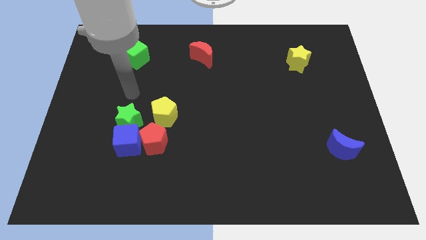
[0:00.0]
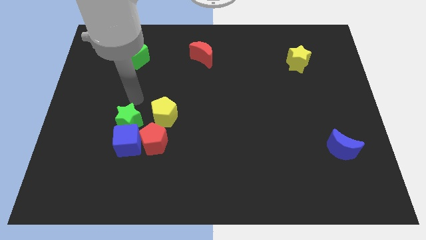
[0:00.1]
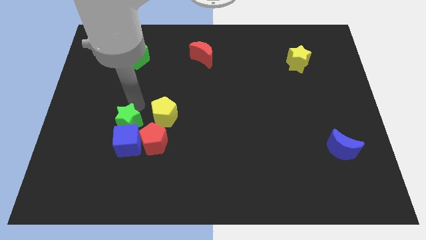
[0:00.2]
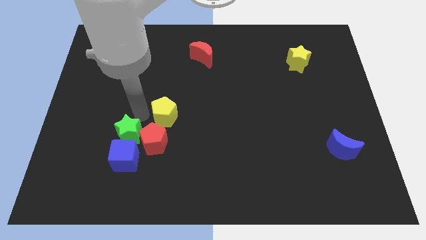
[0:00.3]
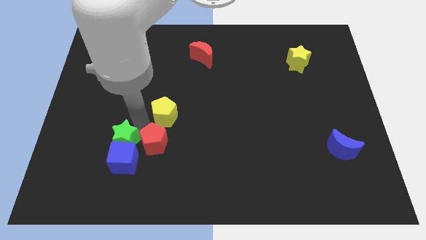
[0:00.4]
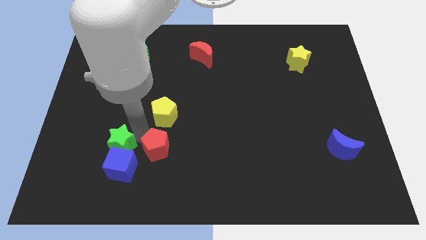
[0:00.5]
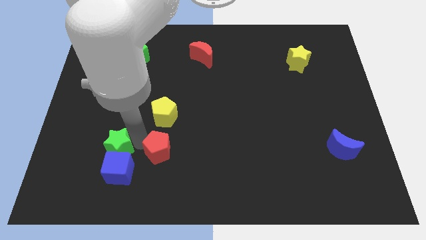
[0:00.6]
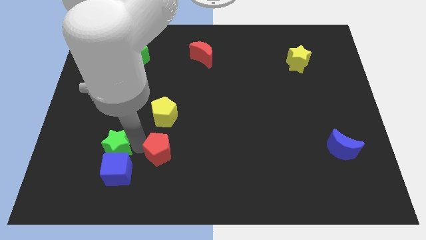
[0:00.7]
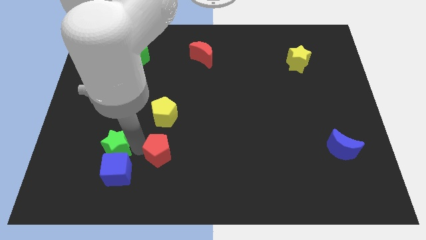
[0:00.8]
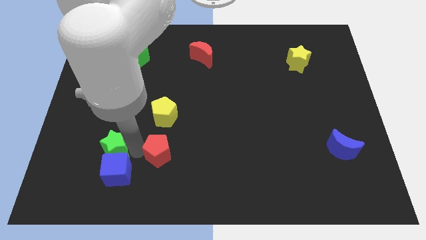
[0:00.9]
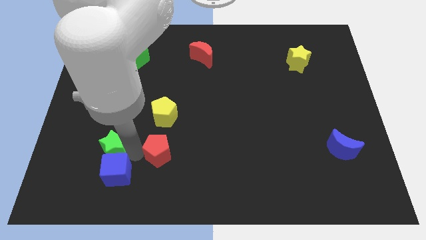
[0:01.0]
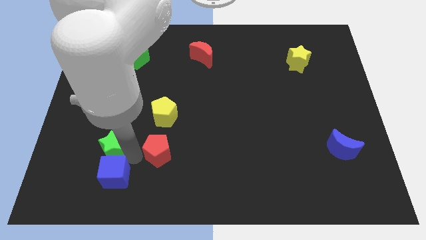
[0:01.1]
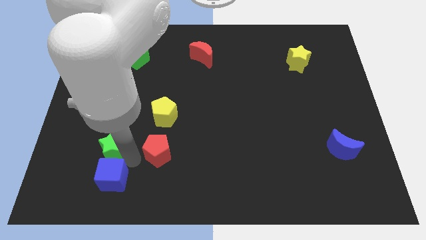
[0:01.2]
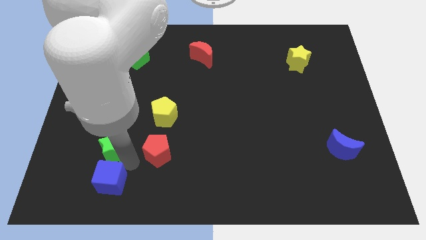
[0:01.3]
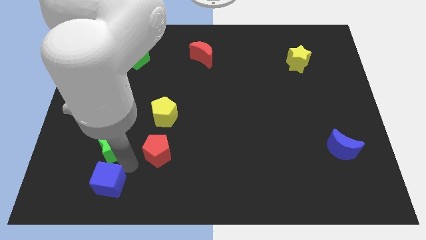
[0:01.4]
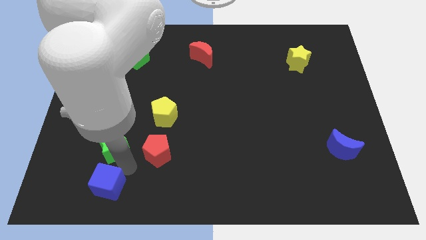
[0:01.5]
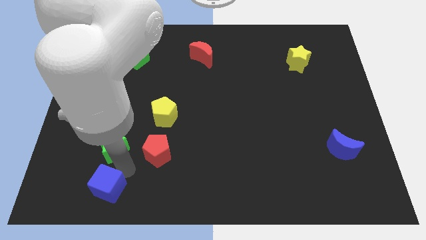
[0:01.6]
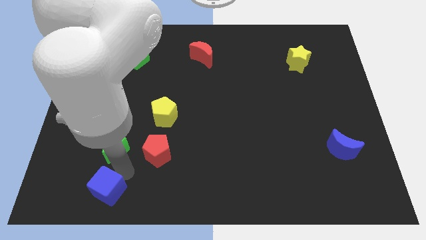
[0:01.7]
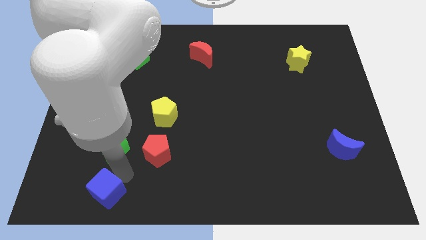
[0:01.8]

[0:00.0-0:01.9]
move the blue cube away from the red pentagon and green star

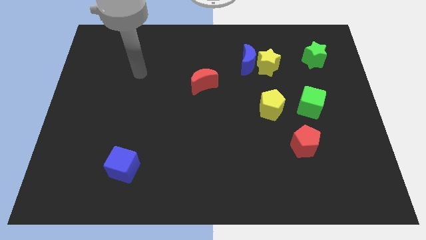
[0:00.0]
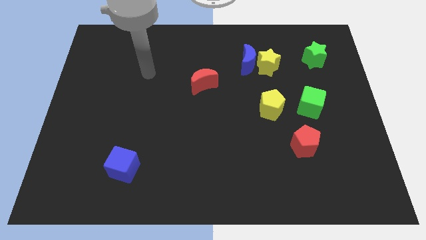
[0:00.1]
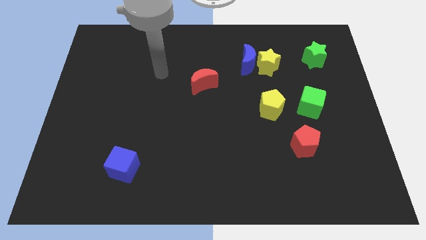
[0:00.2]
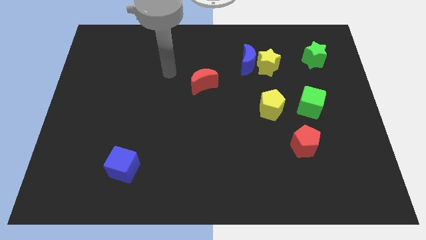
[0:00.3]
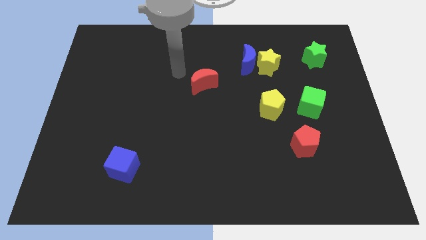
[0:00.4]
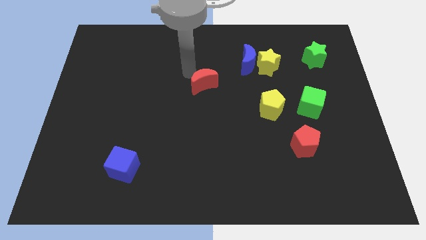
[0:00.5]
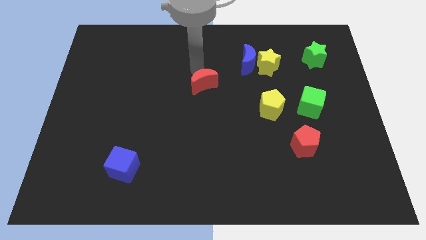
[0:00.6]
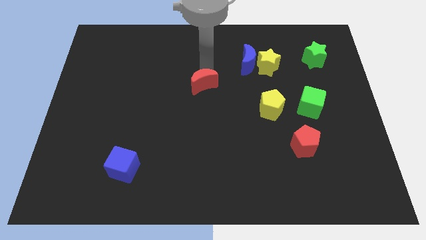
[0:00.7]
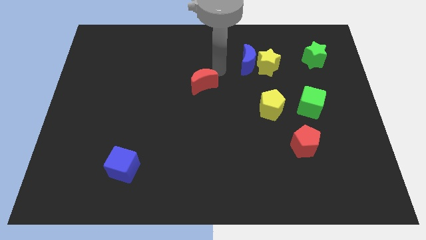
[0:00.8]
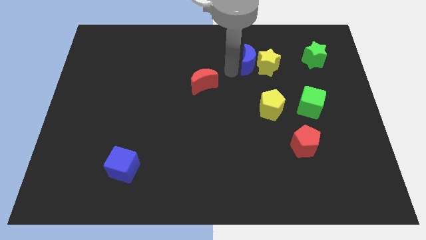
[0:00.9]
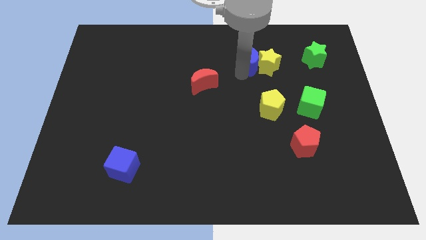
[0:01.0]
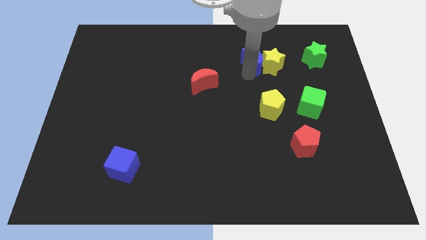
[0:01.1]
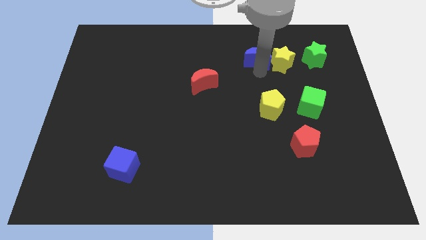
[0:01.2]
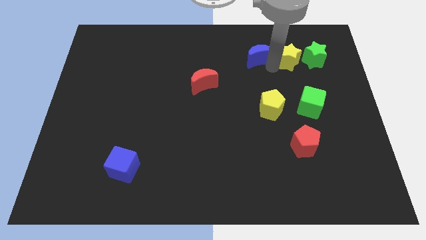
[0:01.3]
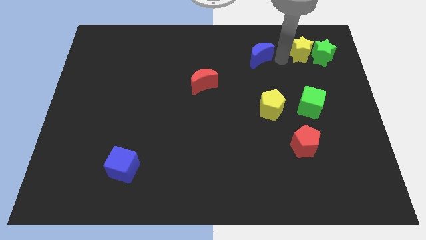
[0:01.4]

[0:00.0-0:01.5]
pull the blue moon apart from the yellow star

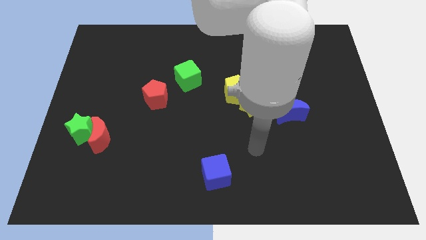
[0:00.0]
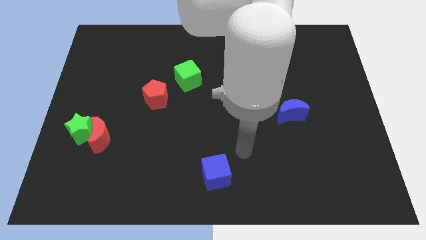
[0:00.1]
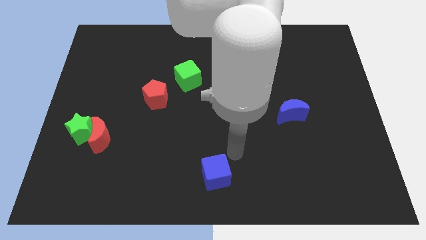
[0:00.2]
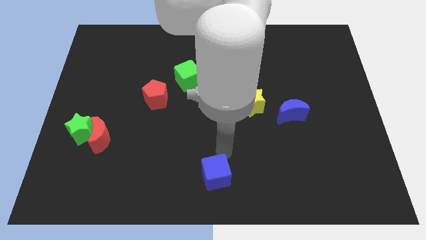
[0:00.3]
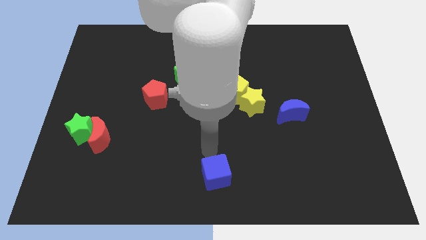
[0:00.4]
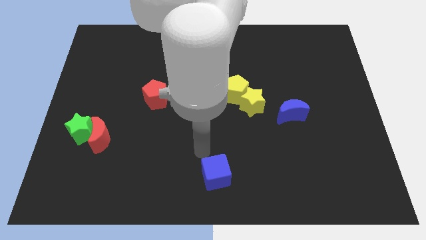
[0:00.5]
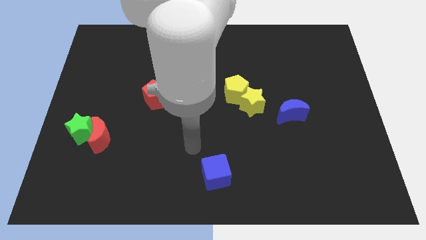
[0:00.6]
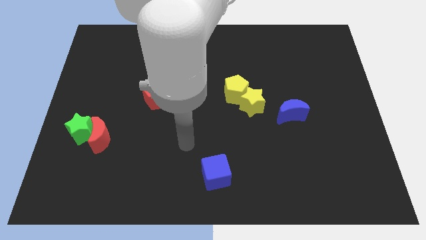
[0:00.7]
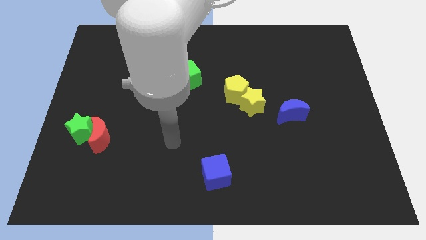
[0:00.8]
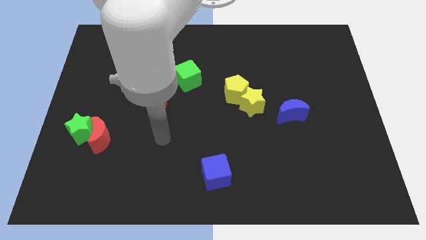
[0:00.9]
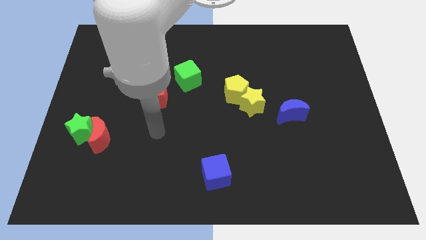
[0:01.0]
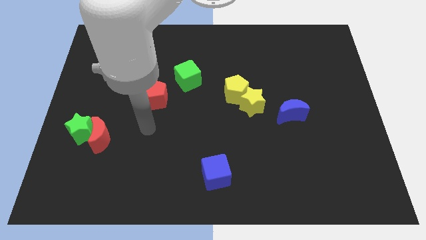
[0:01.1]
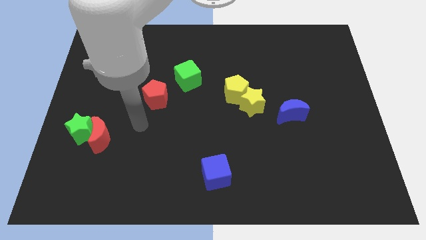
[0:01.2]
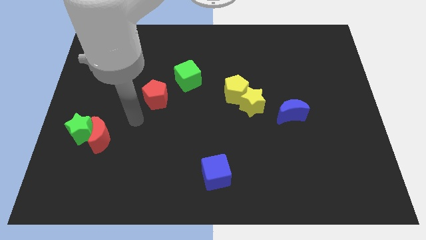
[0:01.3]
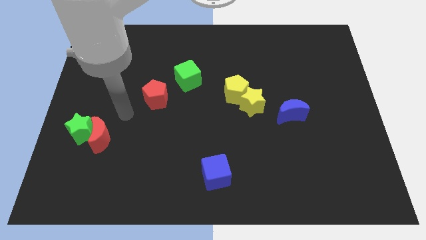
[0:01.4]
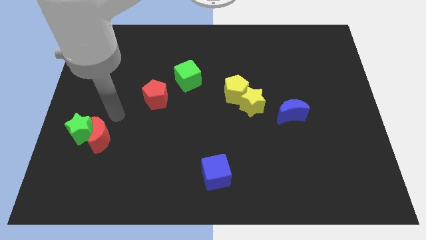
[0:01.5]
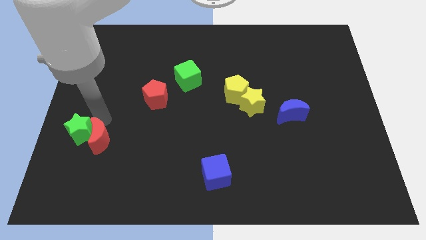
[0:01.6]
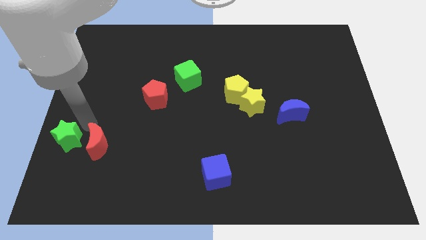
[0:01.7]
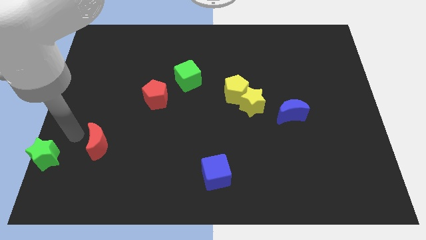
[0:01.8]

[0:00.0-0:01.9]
pull the red moon apart from the green star

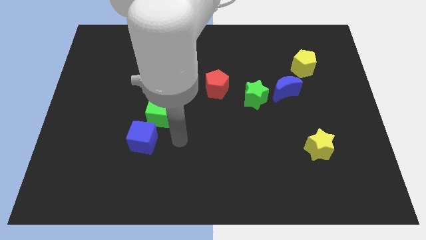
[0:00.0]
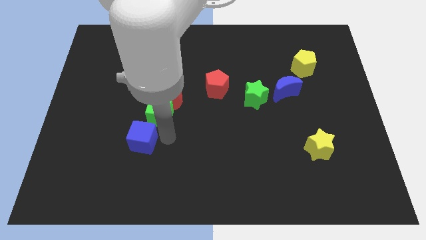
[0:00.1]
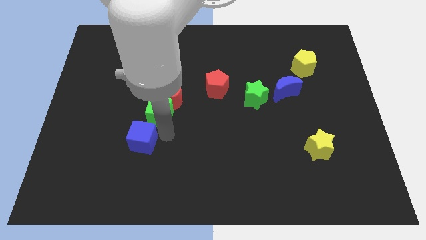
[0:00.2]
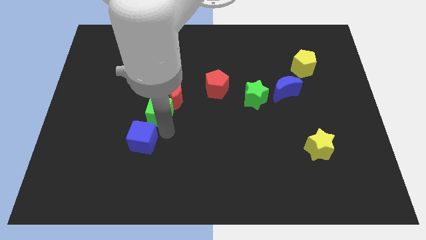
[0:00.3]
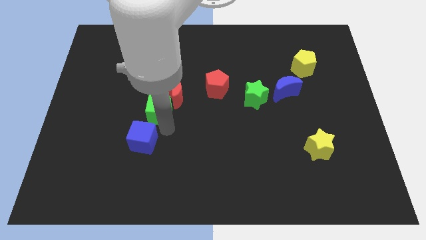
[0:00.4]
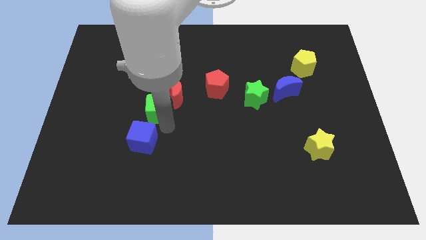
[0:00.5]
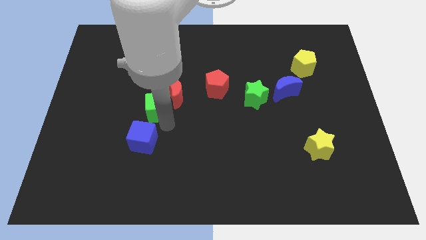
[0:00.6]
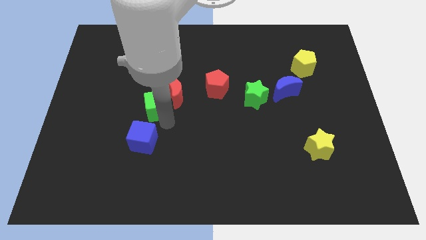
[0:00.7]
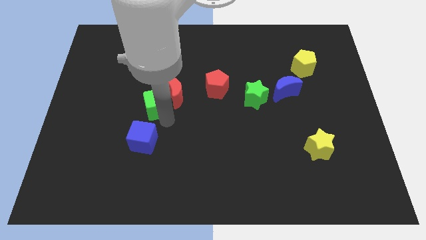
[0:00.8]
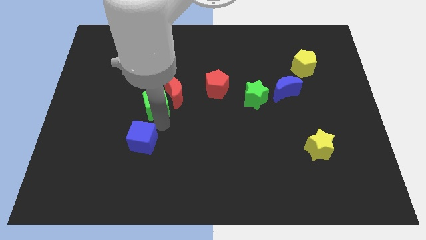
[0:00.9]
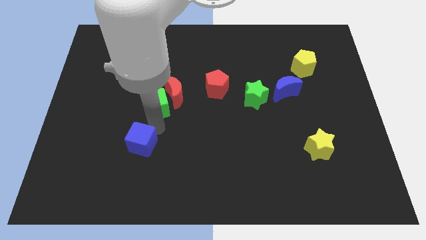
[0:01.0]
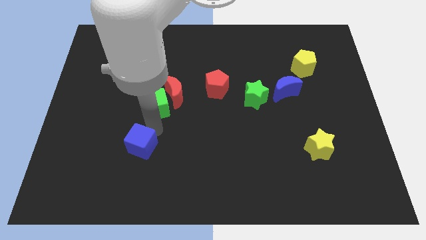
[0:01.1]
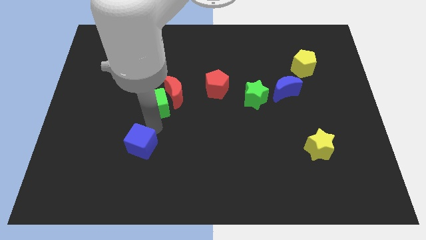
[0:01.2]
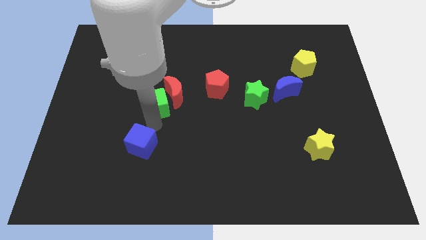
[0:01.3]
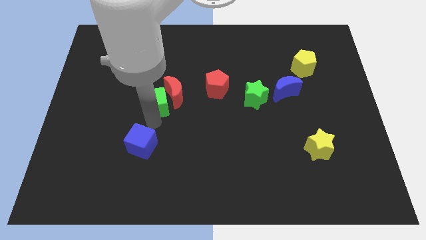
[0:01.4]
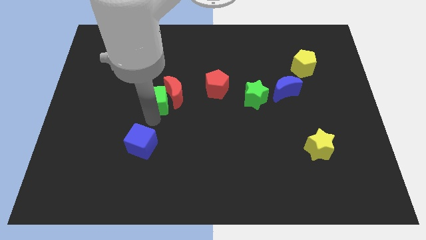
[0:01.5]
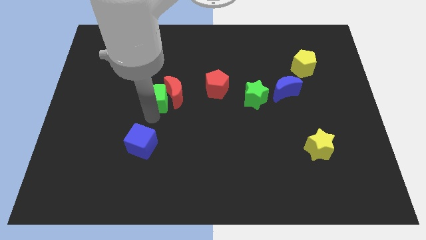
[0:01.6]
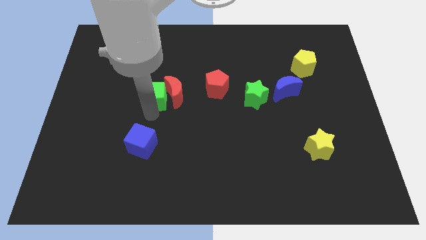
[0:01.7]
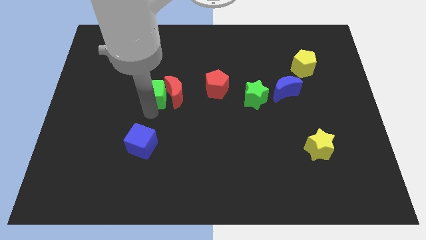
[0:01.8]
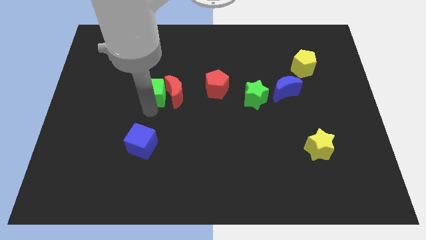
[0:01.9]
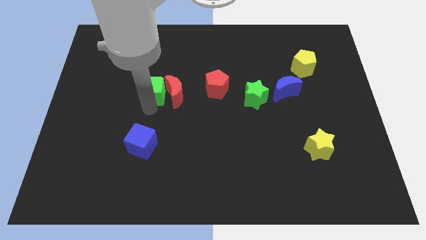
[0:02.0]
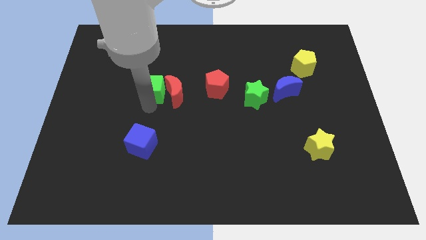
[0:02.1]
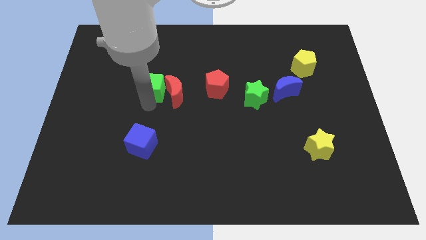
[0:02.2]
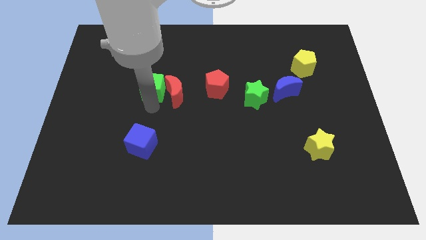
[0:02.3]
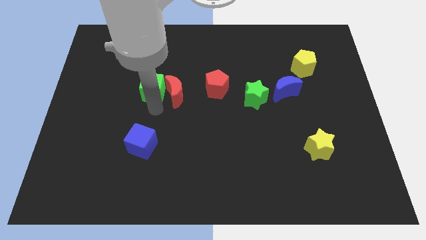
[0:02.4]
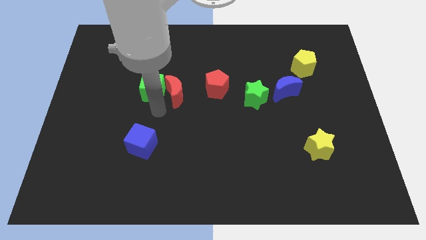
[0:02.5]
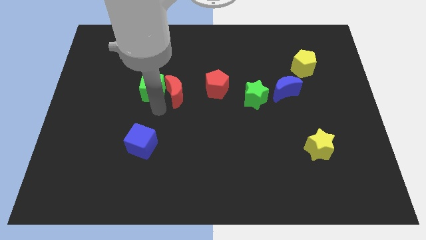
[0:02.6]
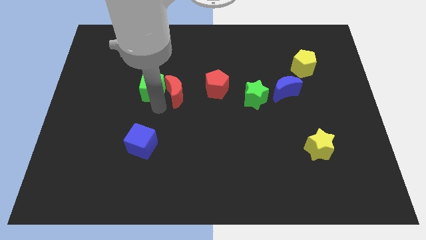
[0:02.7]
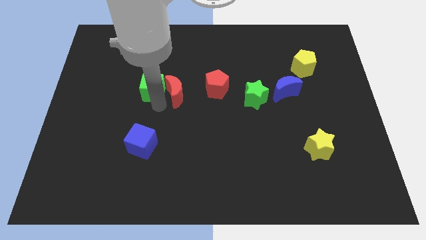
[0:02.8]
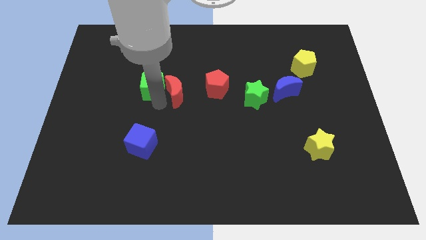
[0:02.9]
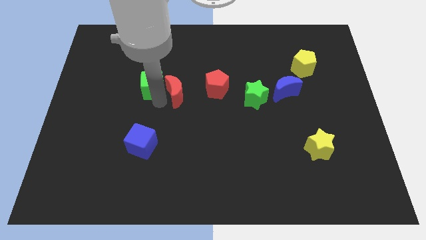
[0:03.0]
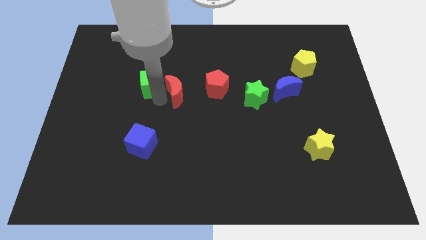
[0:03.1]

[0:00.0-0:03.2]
pull the green cube apart from the red moon and blue cube

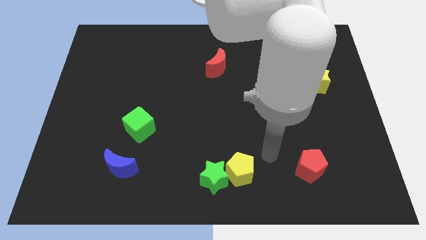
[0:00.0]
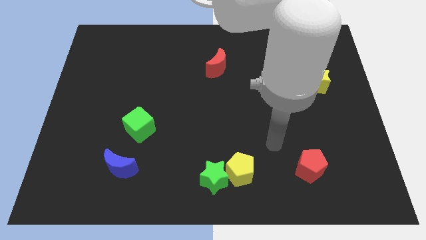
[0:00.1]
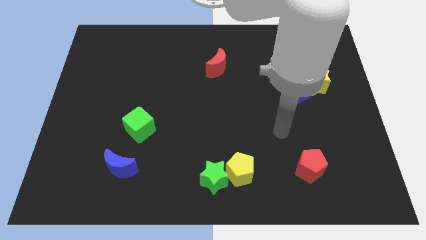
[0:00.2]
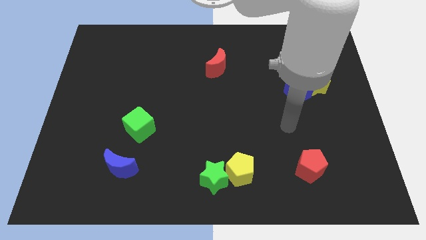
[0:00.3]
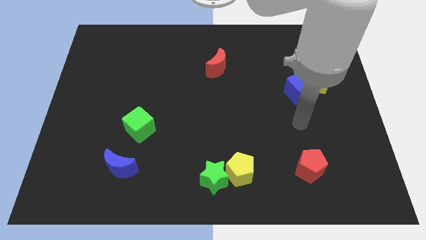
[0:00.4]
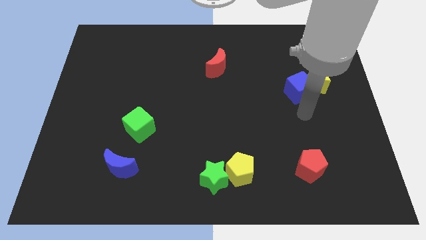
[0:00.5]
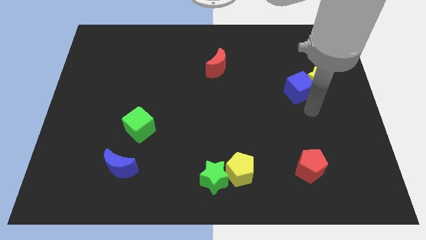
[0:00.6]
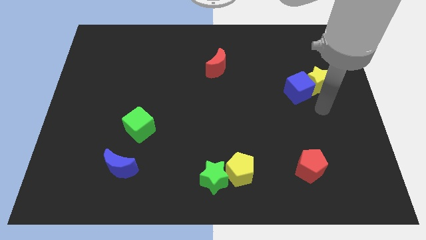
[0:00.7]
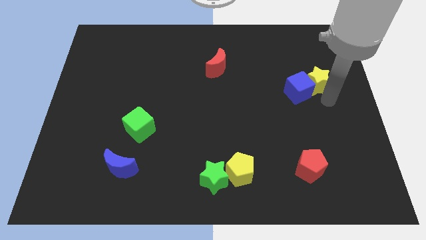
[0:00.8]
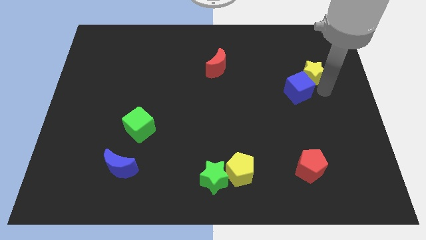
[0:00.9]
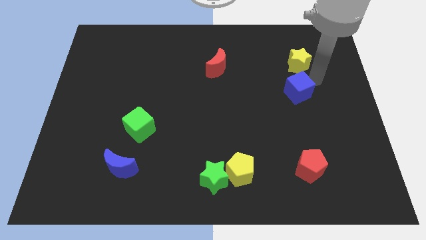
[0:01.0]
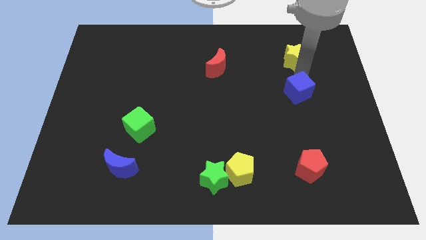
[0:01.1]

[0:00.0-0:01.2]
move the blue cube away from the yellow star
